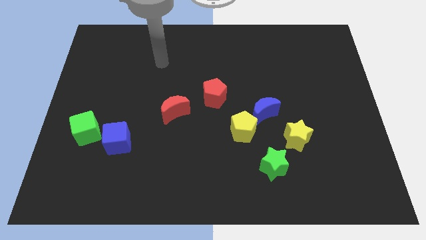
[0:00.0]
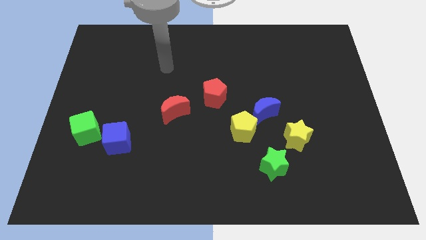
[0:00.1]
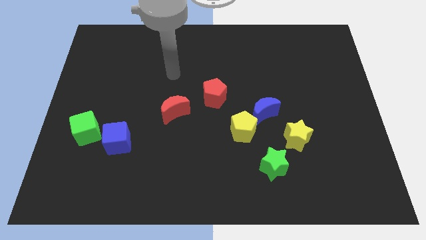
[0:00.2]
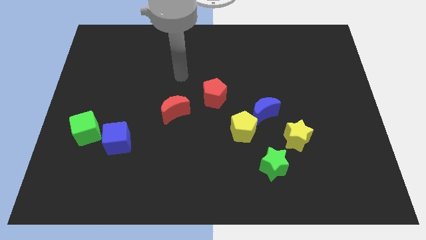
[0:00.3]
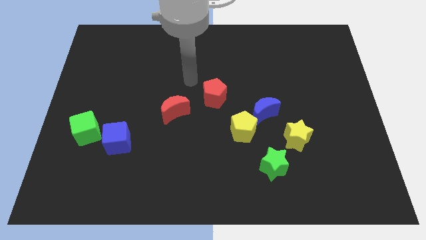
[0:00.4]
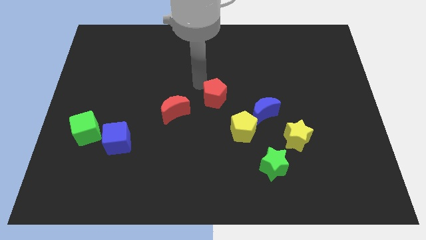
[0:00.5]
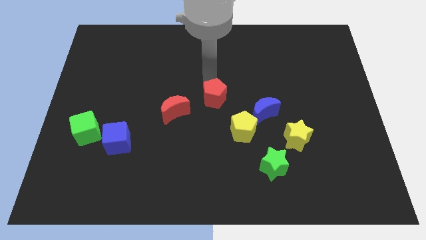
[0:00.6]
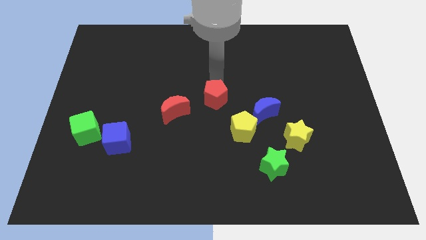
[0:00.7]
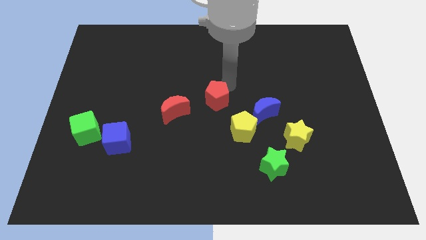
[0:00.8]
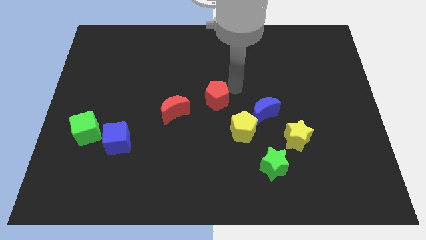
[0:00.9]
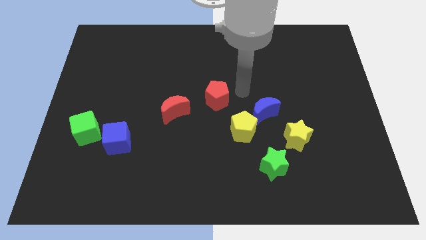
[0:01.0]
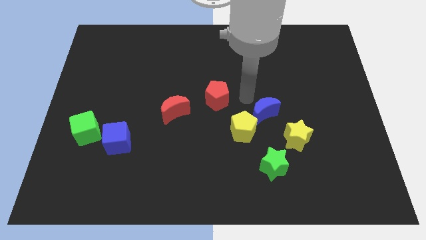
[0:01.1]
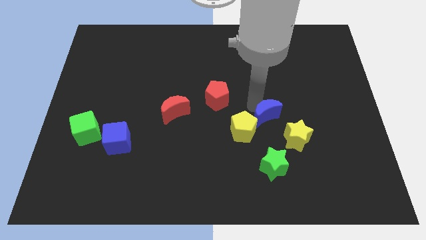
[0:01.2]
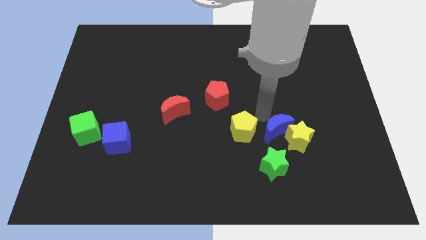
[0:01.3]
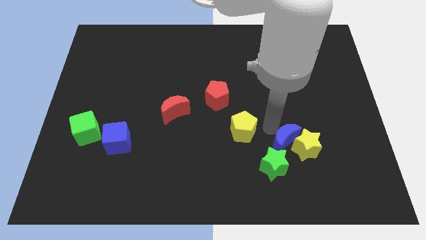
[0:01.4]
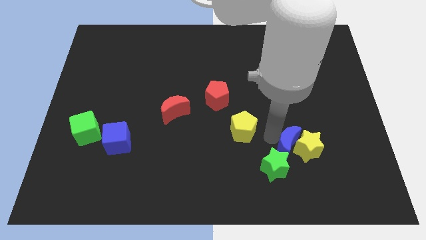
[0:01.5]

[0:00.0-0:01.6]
pull the yellow pentagon apart from the blue moon

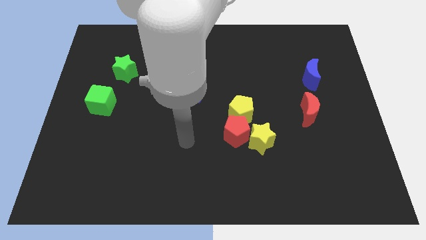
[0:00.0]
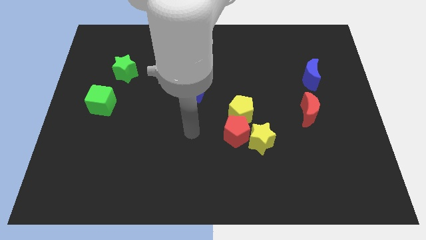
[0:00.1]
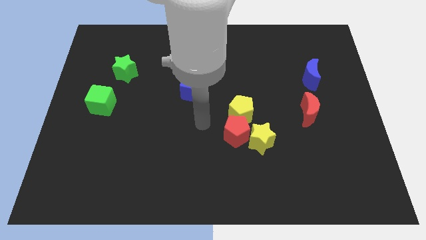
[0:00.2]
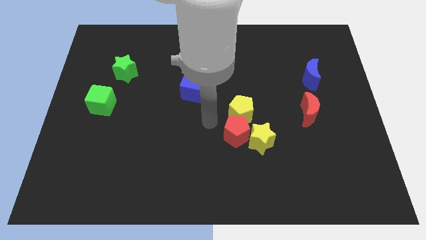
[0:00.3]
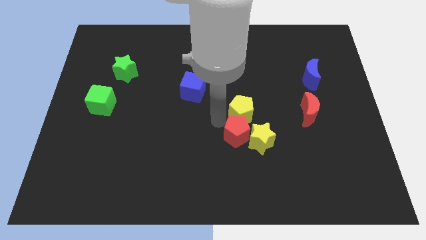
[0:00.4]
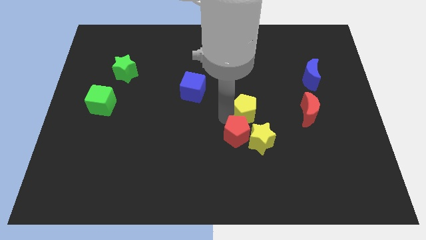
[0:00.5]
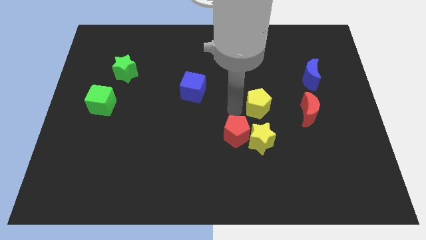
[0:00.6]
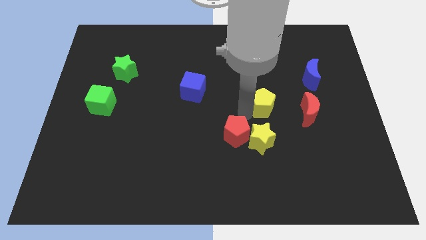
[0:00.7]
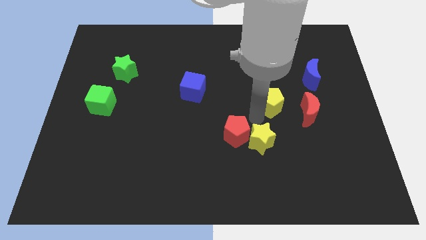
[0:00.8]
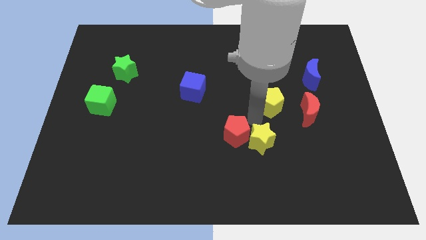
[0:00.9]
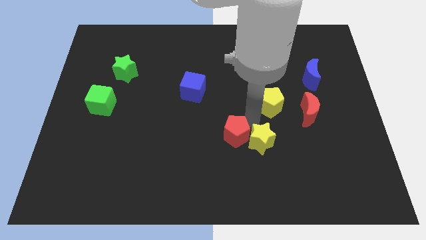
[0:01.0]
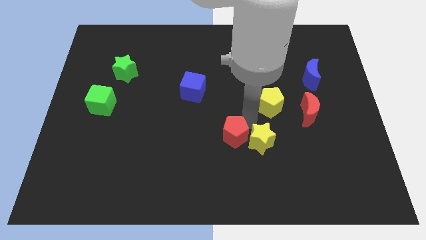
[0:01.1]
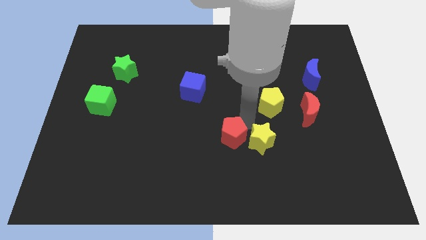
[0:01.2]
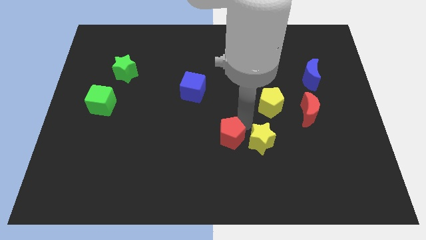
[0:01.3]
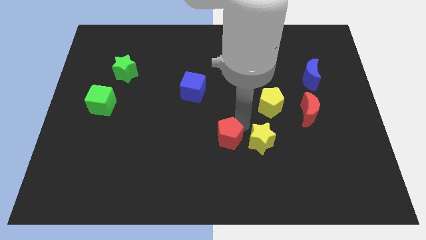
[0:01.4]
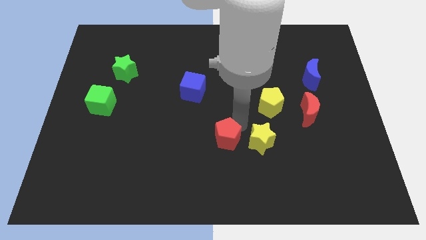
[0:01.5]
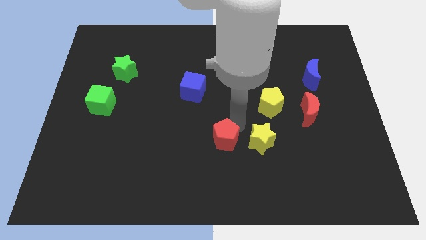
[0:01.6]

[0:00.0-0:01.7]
pull the red pentagon apart from the yellow star and yellow pentagon

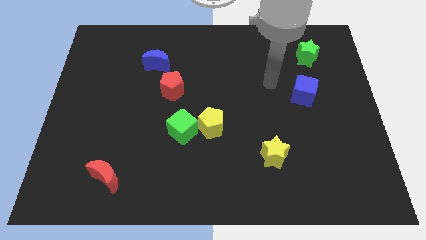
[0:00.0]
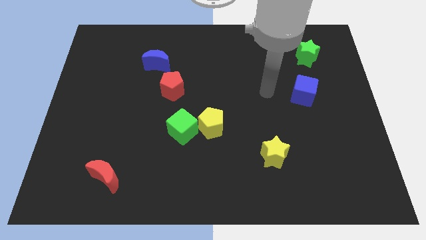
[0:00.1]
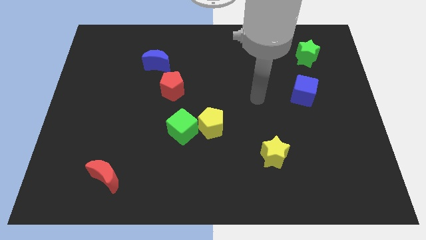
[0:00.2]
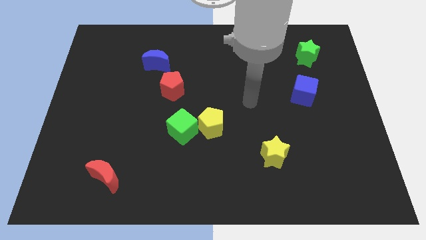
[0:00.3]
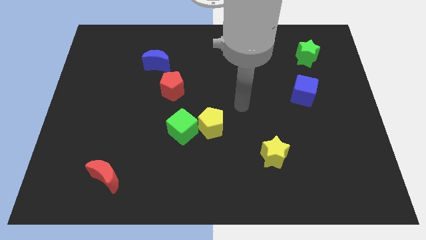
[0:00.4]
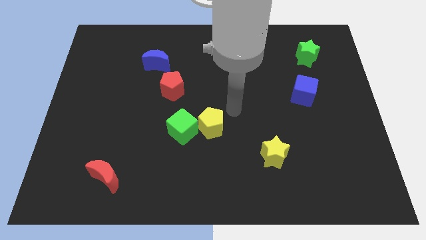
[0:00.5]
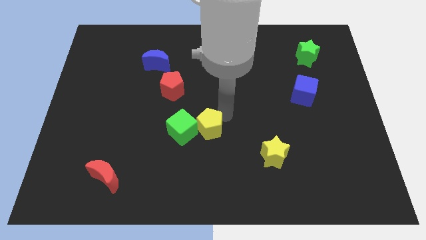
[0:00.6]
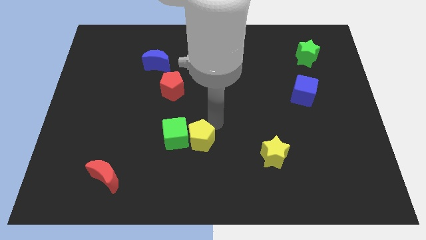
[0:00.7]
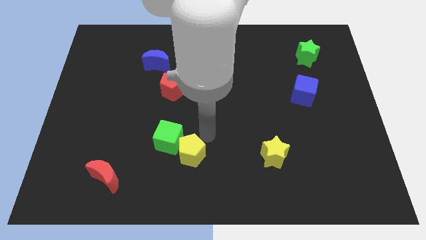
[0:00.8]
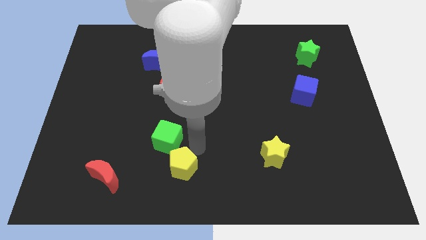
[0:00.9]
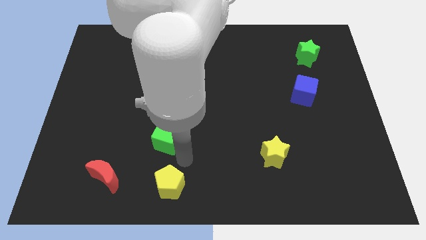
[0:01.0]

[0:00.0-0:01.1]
pull the green cube apart from the yellow pentagon

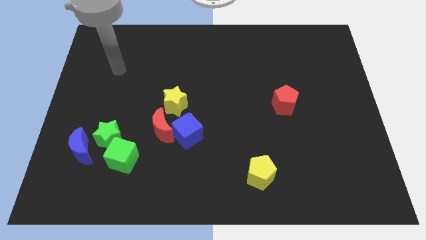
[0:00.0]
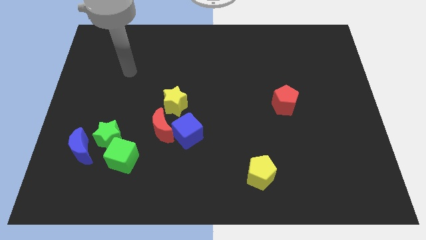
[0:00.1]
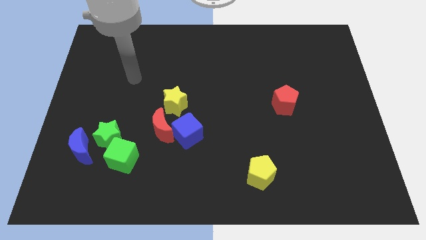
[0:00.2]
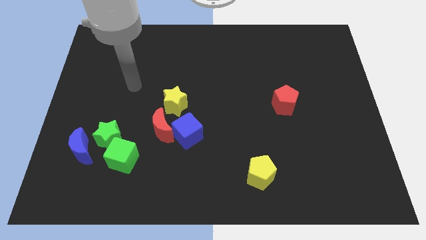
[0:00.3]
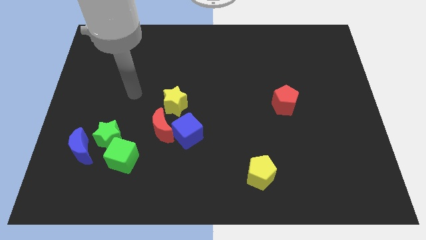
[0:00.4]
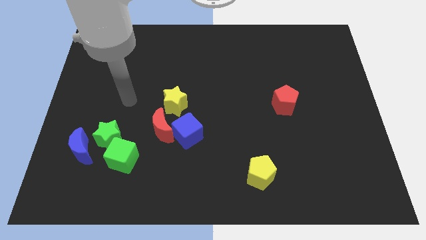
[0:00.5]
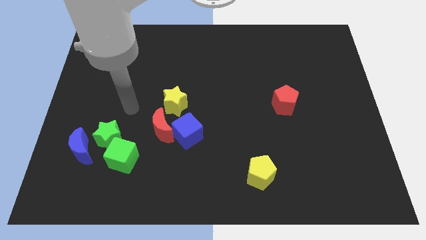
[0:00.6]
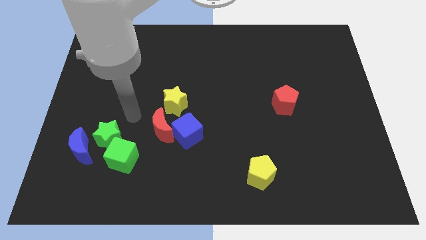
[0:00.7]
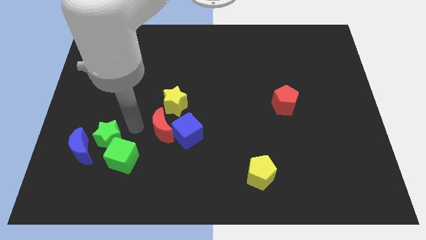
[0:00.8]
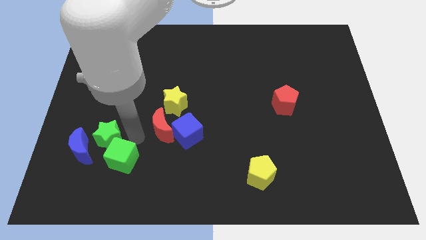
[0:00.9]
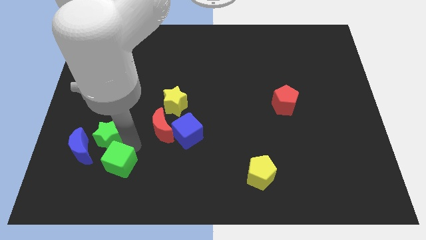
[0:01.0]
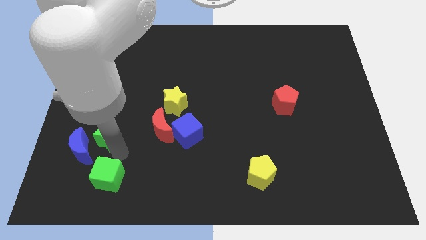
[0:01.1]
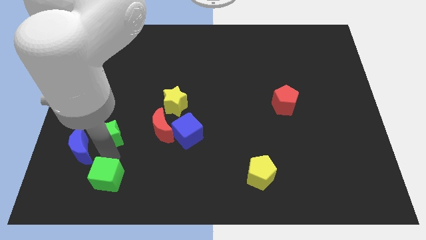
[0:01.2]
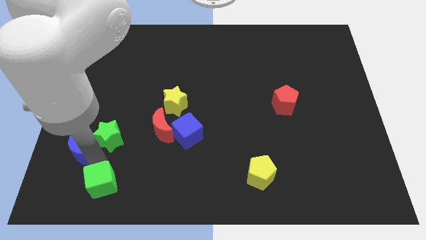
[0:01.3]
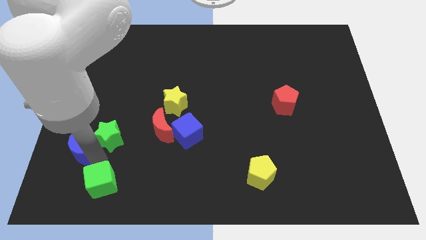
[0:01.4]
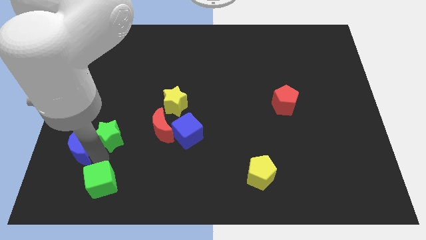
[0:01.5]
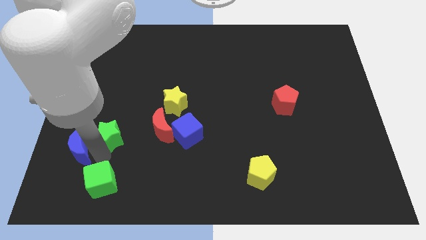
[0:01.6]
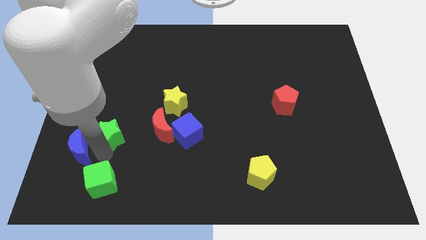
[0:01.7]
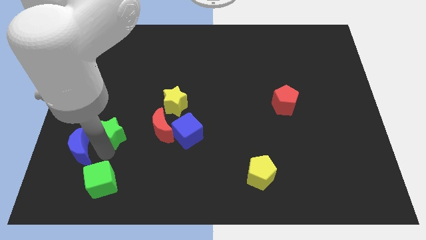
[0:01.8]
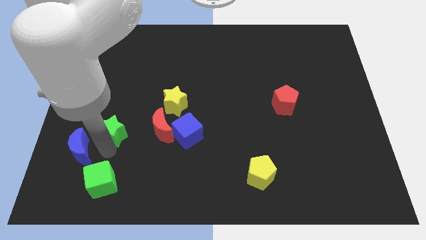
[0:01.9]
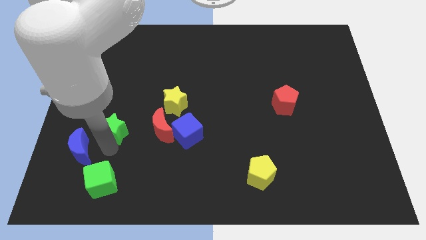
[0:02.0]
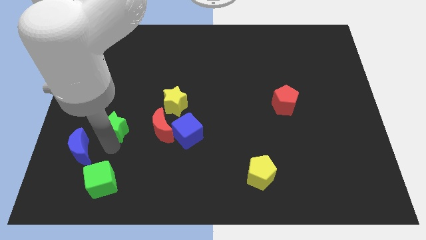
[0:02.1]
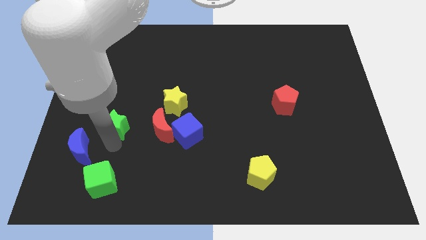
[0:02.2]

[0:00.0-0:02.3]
separate the green star from the green cube and blue moon

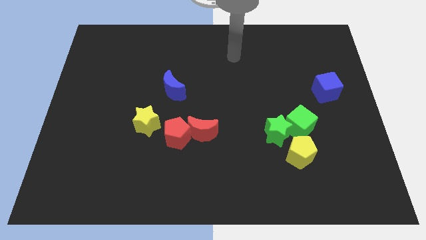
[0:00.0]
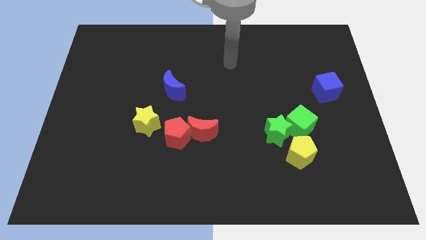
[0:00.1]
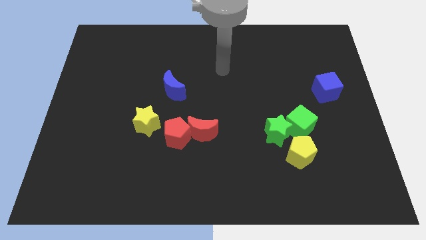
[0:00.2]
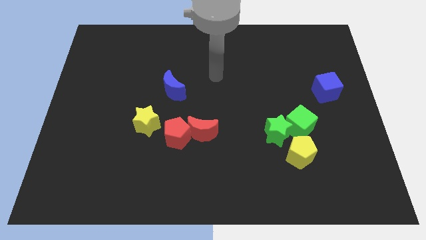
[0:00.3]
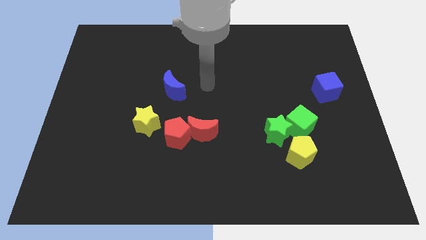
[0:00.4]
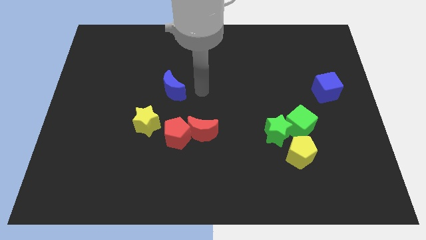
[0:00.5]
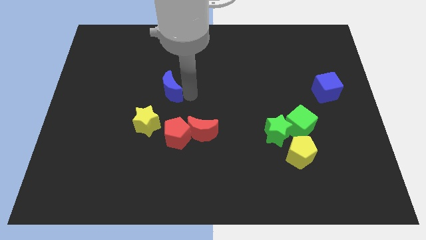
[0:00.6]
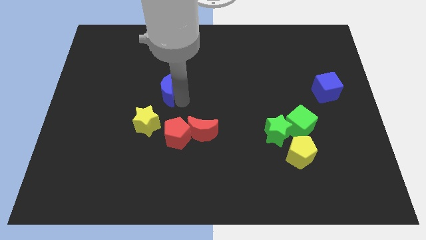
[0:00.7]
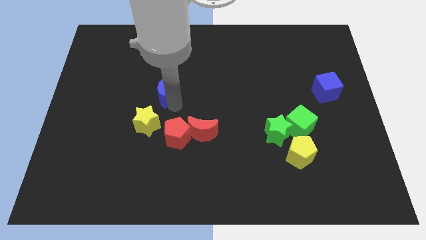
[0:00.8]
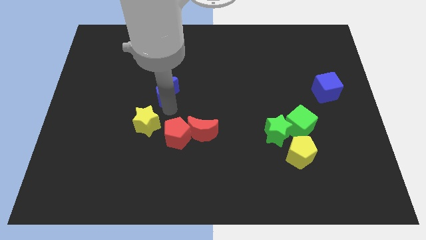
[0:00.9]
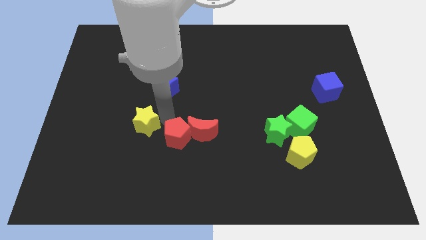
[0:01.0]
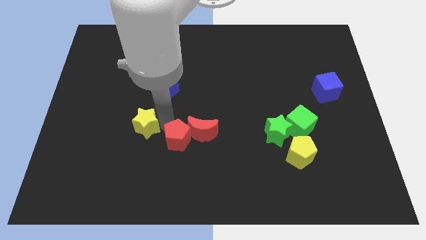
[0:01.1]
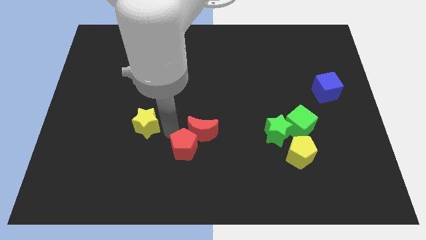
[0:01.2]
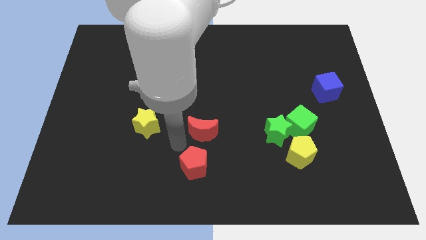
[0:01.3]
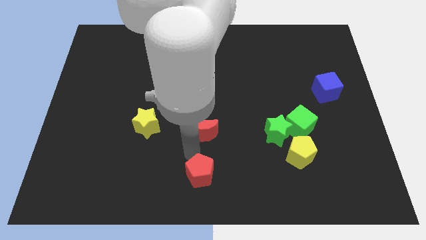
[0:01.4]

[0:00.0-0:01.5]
separate the red moon from the red pentagon

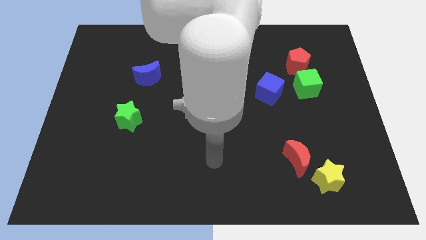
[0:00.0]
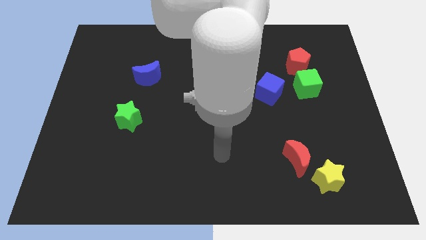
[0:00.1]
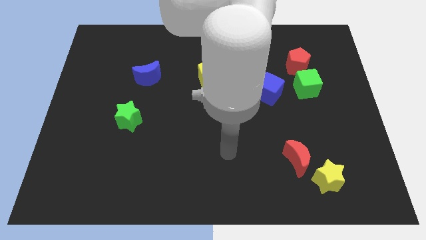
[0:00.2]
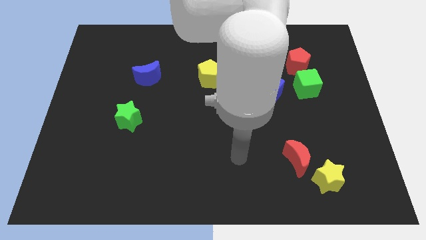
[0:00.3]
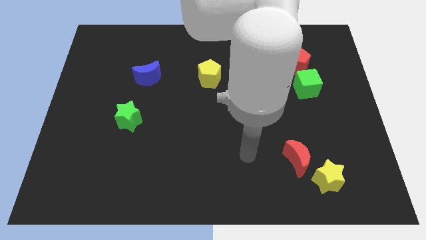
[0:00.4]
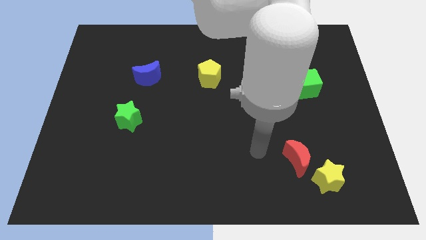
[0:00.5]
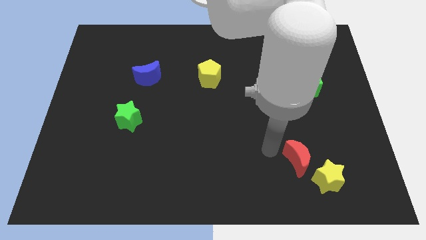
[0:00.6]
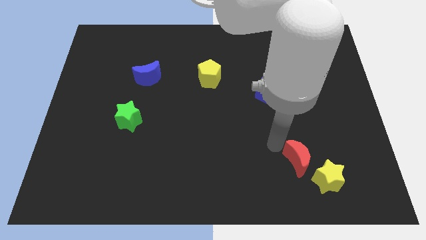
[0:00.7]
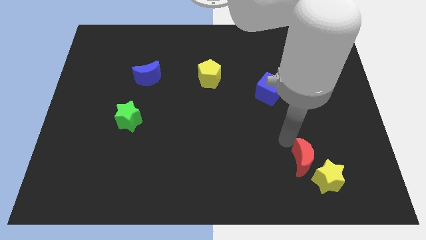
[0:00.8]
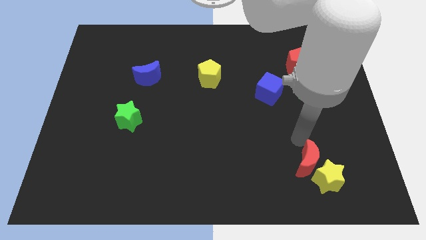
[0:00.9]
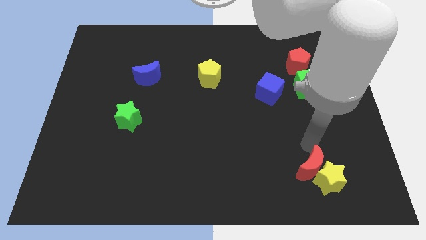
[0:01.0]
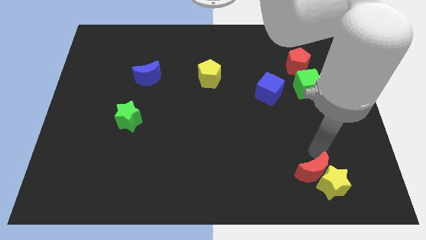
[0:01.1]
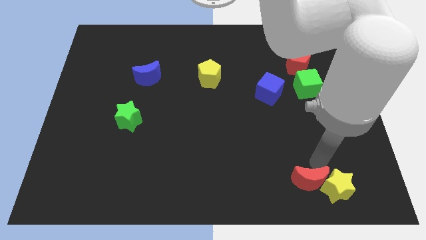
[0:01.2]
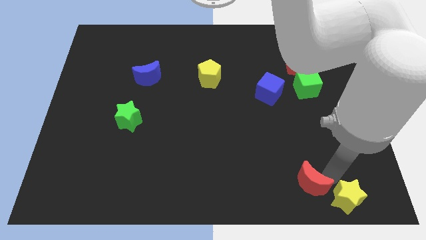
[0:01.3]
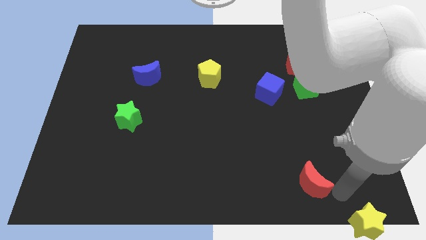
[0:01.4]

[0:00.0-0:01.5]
separate the red moon from the yellow star
